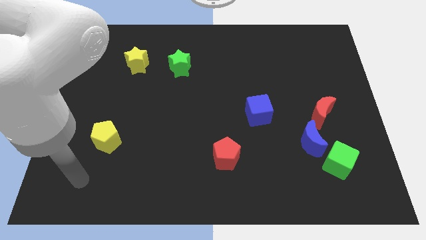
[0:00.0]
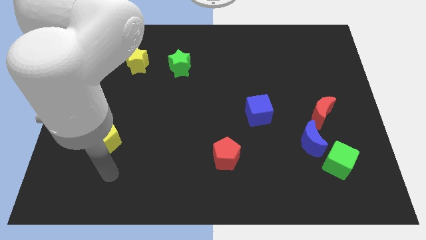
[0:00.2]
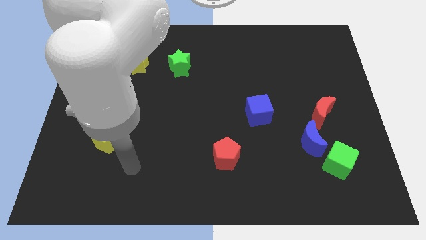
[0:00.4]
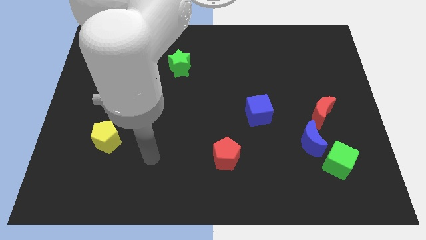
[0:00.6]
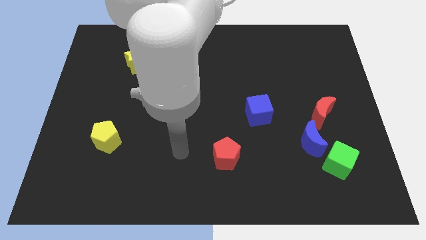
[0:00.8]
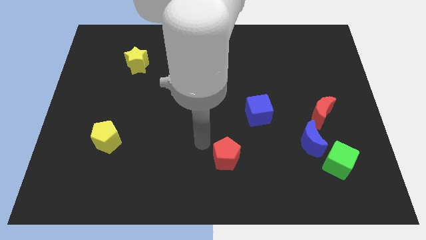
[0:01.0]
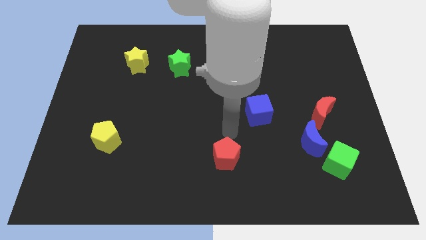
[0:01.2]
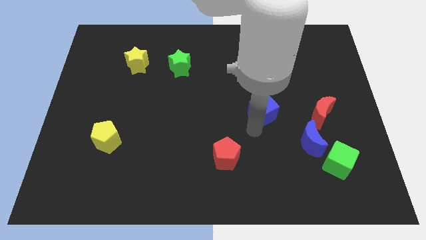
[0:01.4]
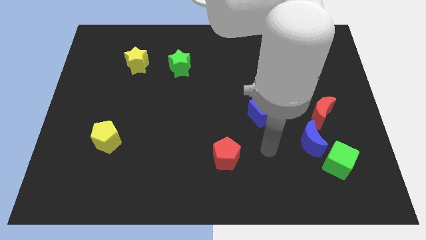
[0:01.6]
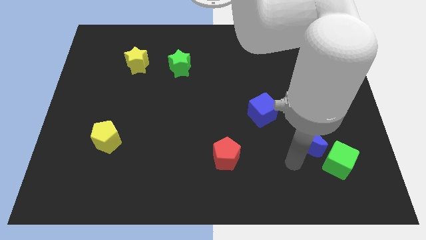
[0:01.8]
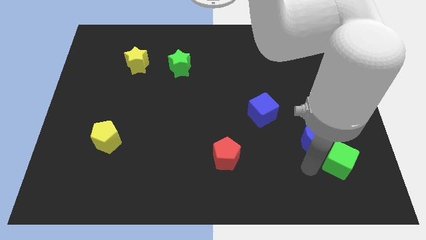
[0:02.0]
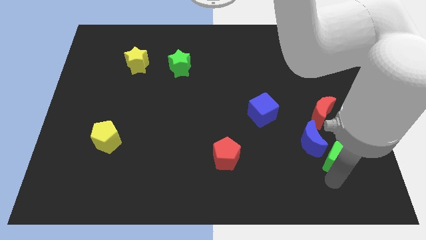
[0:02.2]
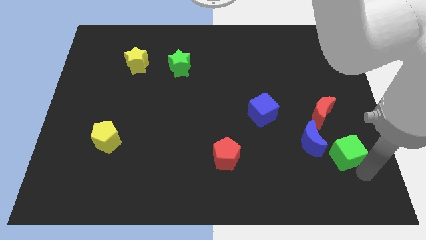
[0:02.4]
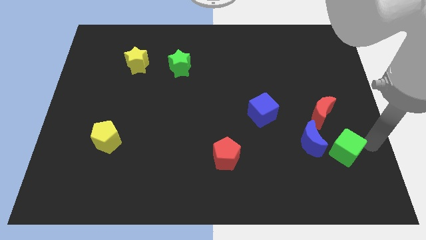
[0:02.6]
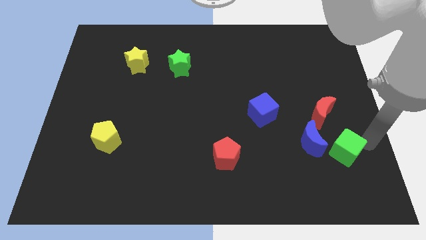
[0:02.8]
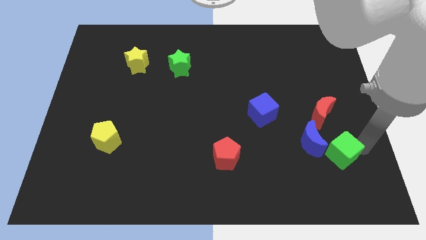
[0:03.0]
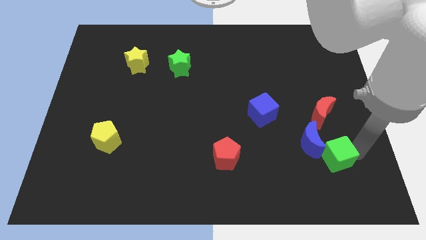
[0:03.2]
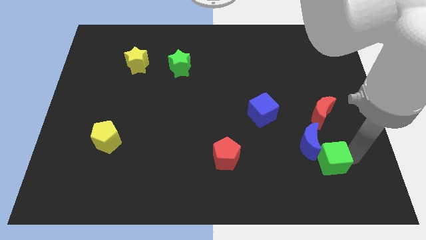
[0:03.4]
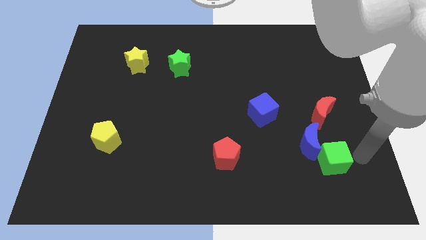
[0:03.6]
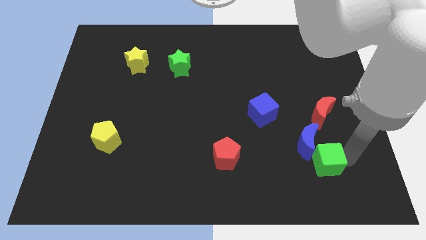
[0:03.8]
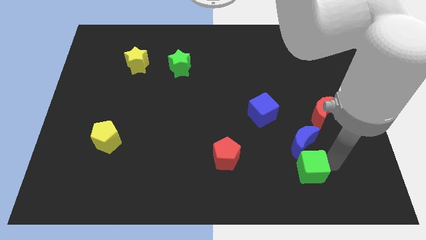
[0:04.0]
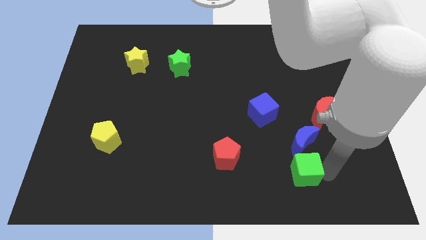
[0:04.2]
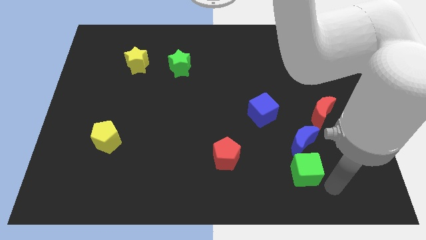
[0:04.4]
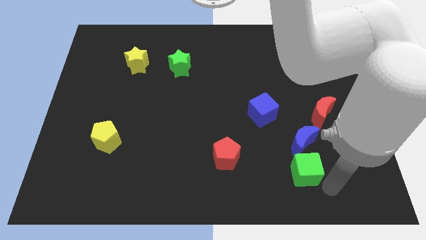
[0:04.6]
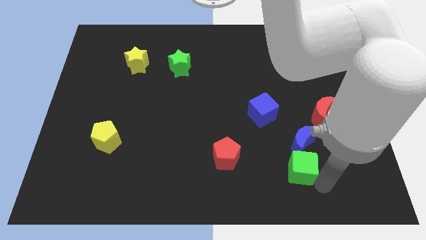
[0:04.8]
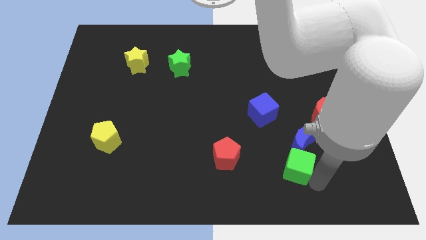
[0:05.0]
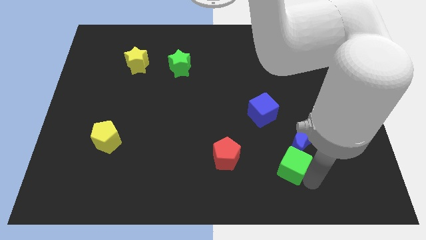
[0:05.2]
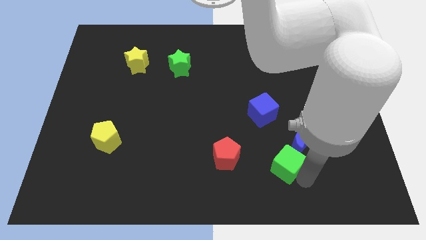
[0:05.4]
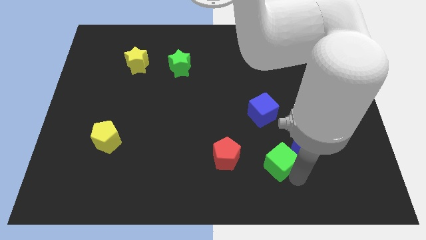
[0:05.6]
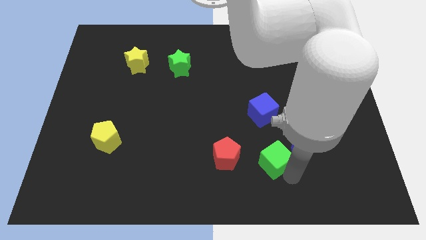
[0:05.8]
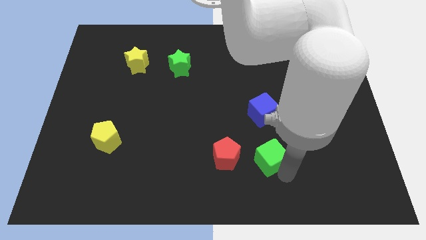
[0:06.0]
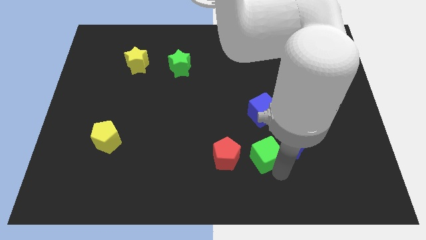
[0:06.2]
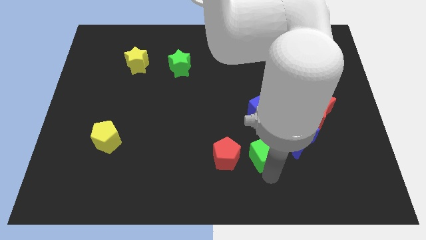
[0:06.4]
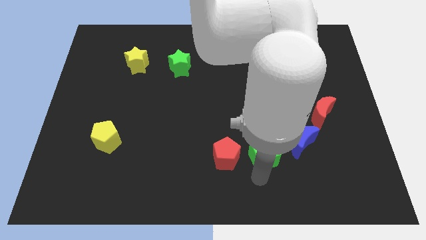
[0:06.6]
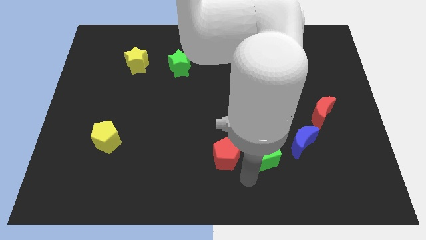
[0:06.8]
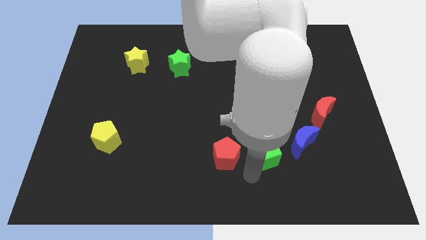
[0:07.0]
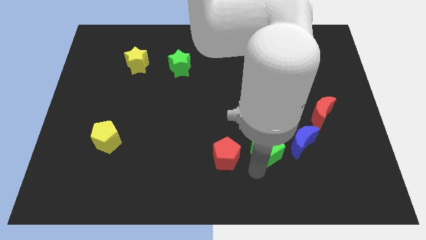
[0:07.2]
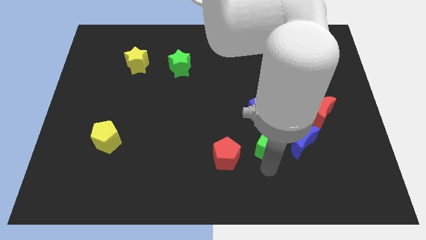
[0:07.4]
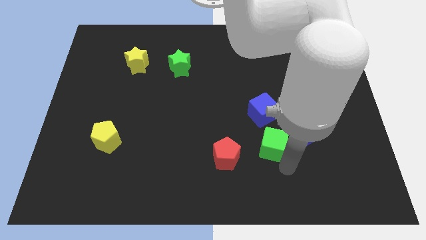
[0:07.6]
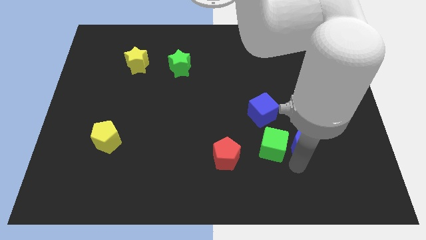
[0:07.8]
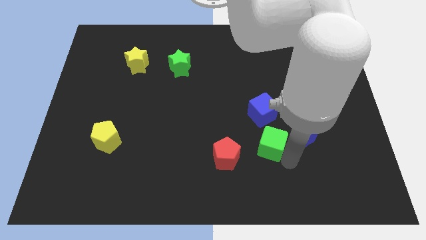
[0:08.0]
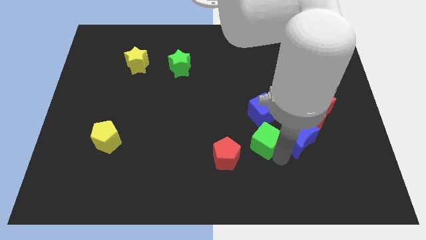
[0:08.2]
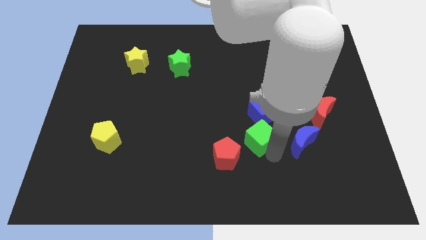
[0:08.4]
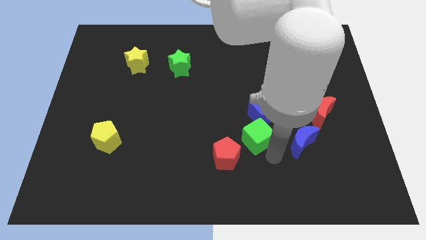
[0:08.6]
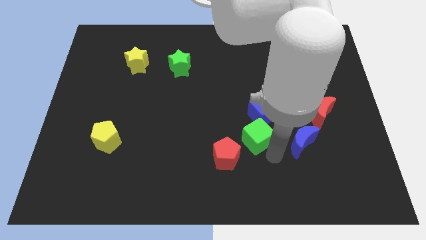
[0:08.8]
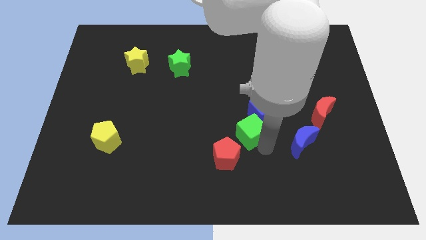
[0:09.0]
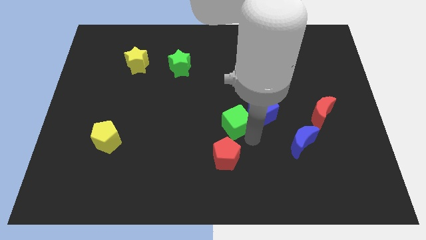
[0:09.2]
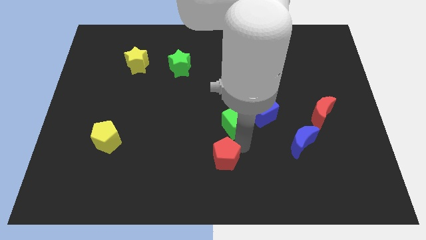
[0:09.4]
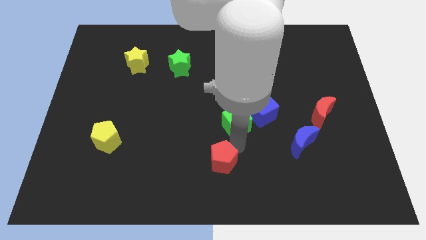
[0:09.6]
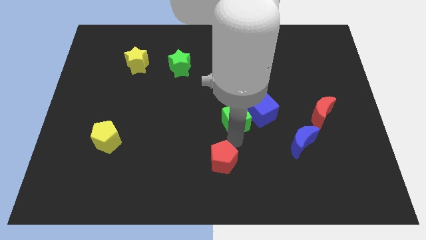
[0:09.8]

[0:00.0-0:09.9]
slide the green cube up and left

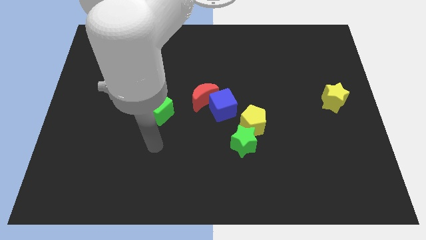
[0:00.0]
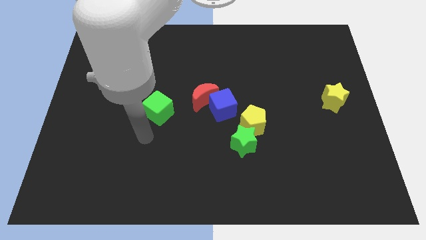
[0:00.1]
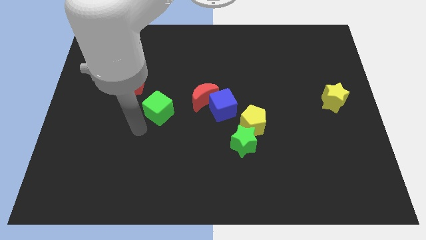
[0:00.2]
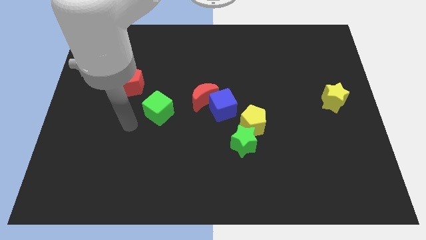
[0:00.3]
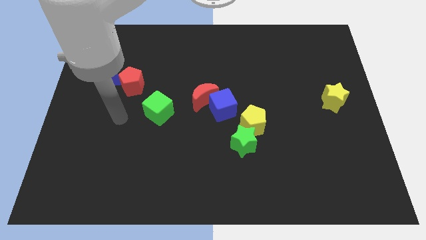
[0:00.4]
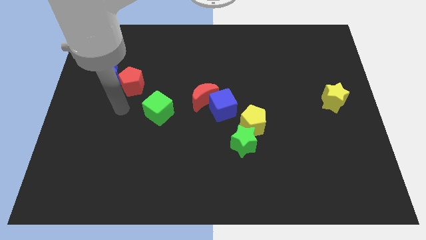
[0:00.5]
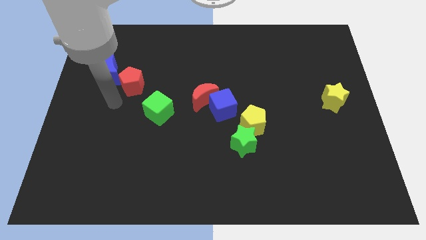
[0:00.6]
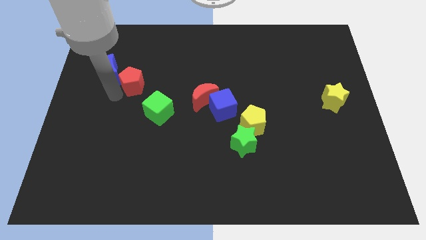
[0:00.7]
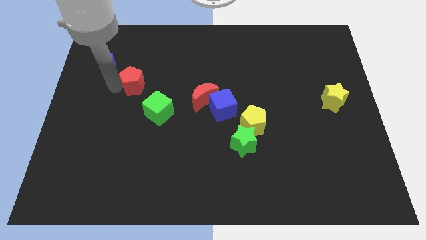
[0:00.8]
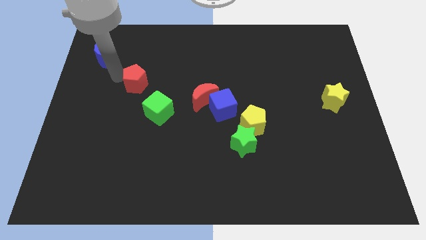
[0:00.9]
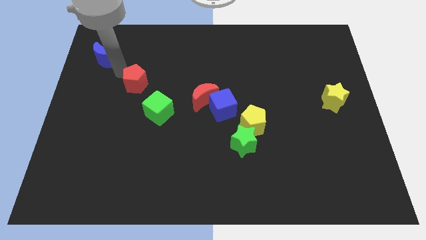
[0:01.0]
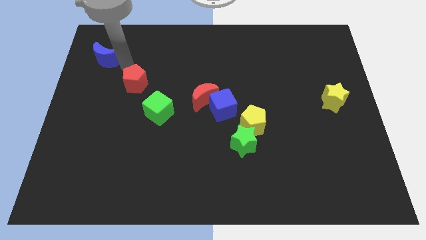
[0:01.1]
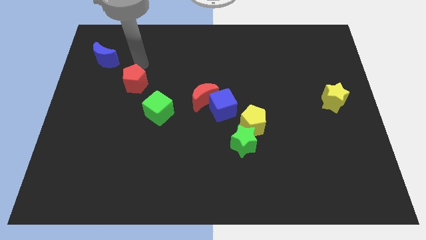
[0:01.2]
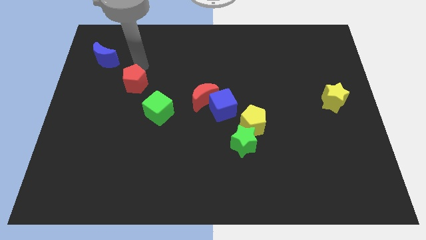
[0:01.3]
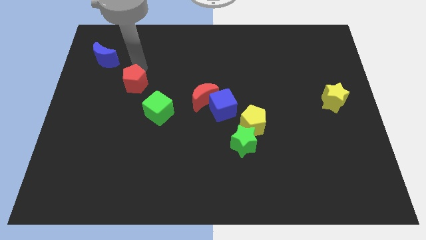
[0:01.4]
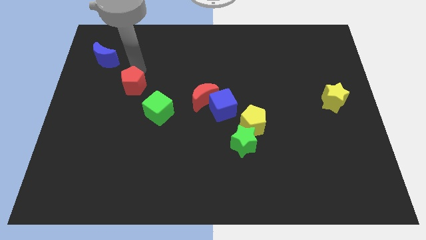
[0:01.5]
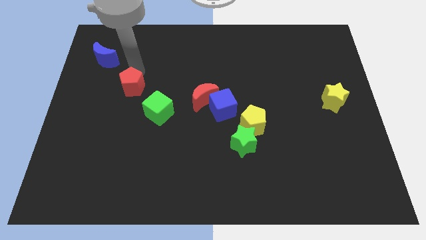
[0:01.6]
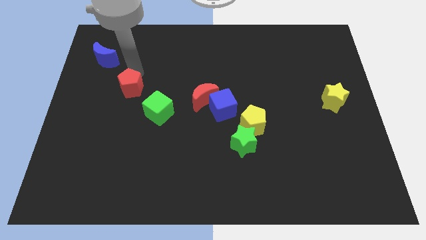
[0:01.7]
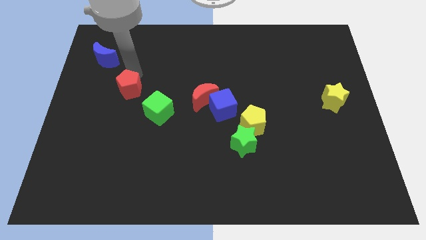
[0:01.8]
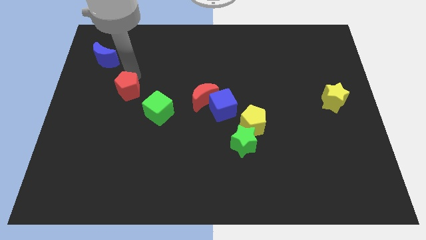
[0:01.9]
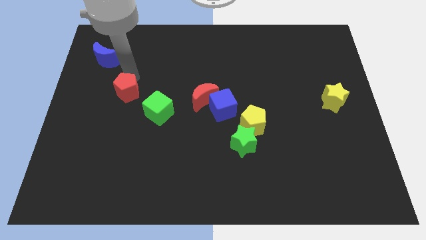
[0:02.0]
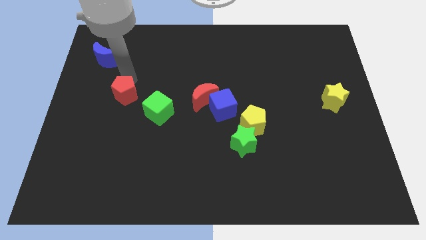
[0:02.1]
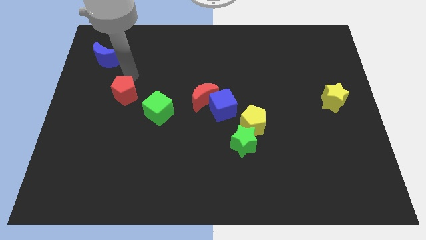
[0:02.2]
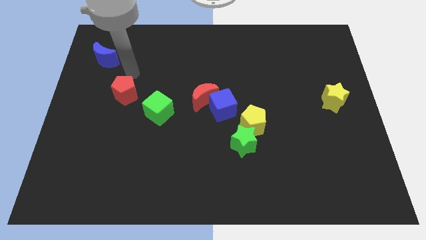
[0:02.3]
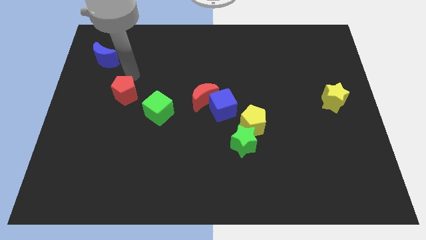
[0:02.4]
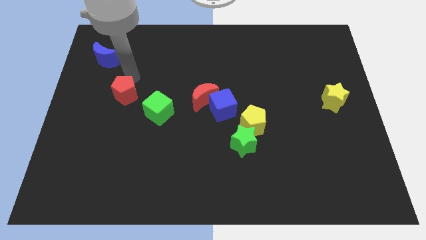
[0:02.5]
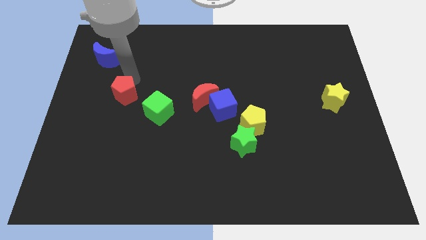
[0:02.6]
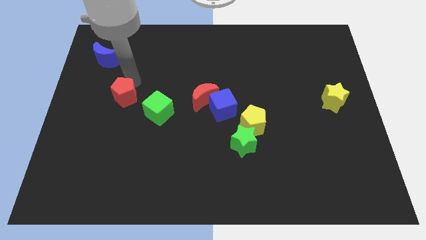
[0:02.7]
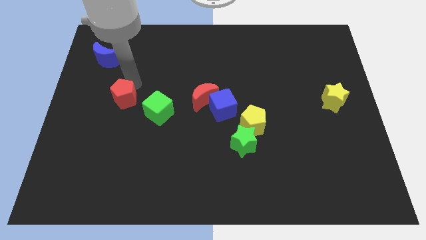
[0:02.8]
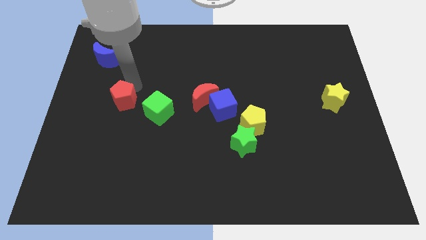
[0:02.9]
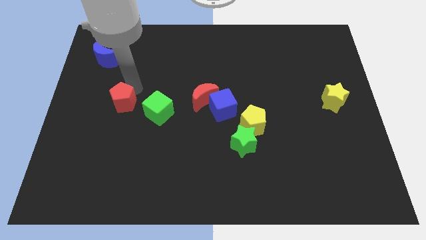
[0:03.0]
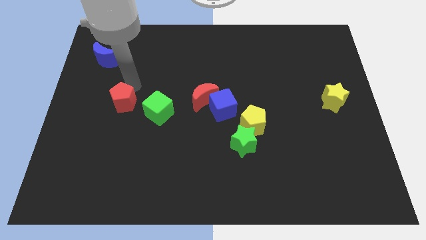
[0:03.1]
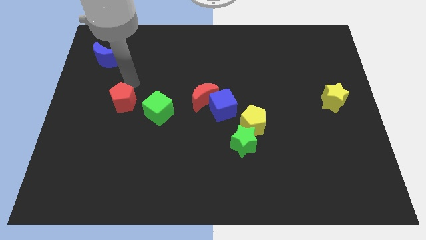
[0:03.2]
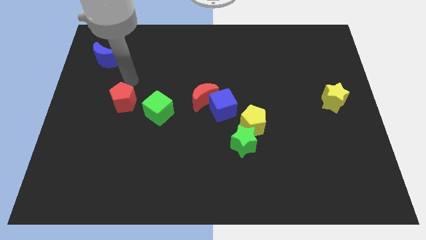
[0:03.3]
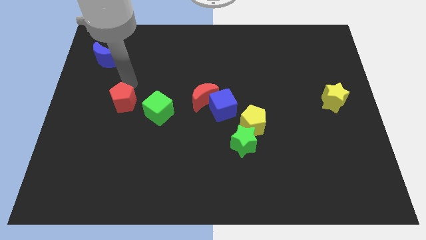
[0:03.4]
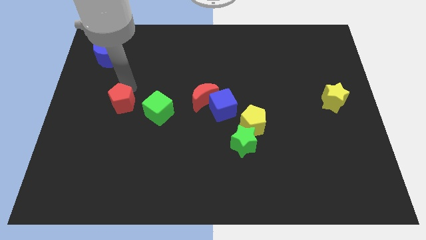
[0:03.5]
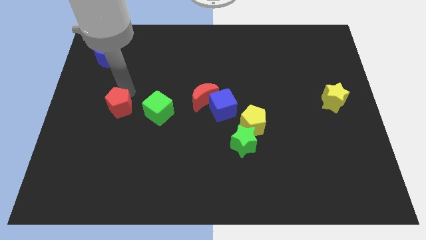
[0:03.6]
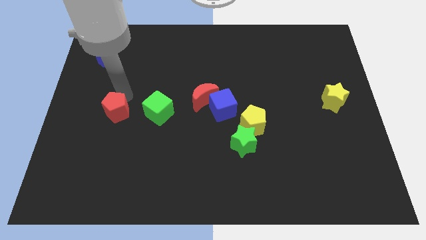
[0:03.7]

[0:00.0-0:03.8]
slide the red pentagon a bit downwards
